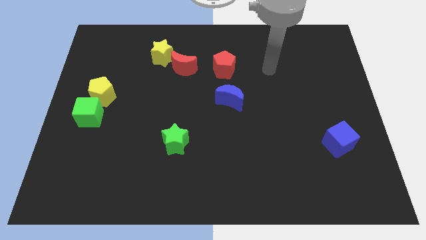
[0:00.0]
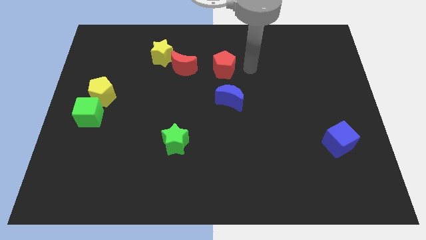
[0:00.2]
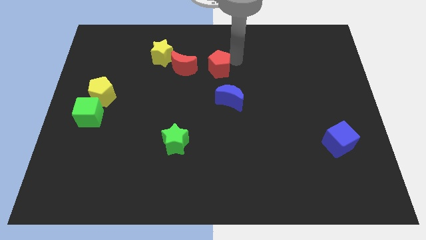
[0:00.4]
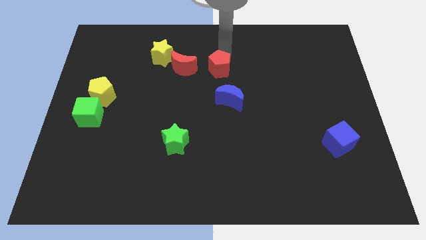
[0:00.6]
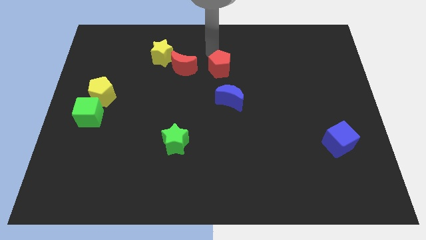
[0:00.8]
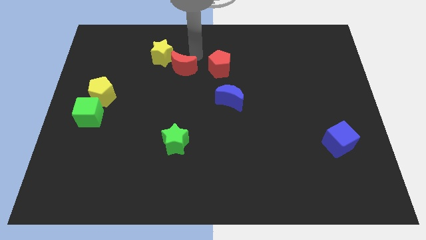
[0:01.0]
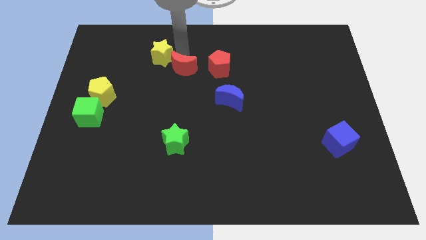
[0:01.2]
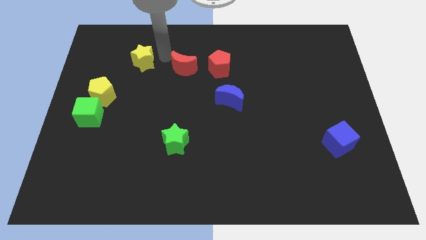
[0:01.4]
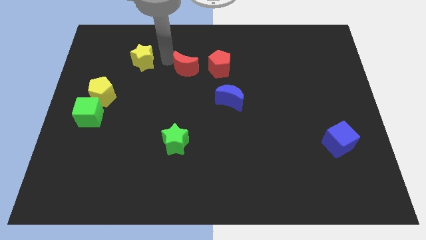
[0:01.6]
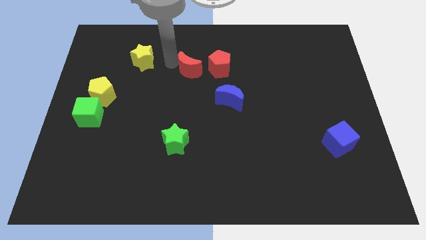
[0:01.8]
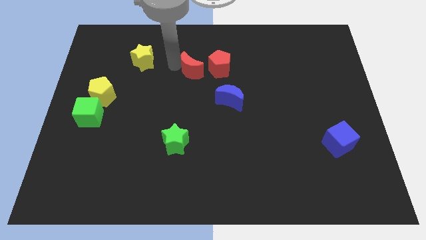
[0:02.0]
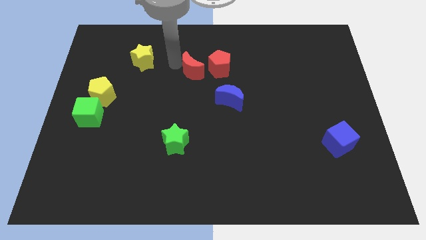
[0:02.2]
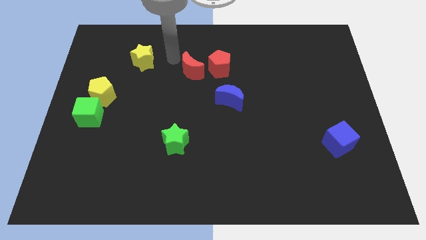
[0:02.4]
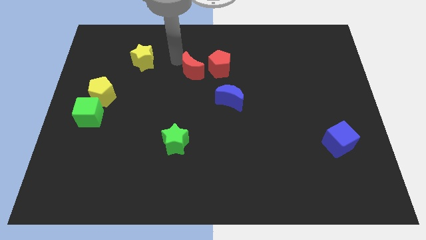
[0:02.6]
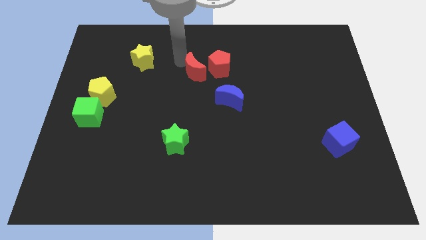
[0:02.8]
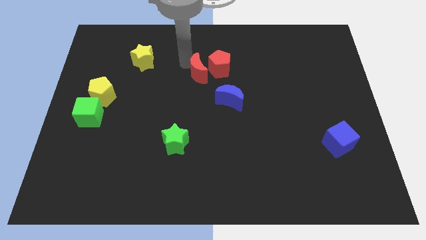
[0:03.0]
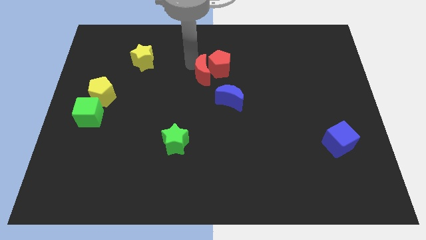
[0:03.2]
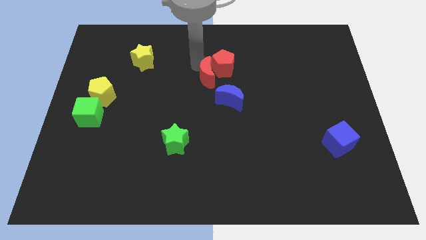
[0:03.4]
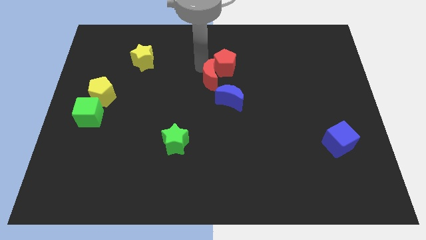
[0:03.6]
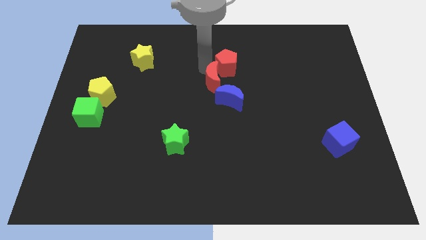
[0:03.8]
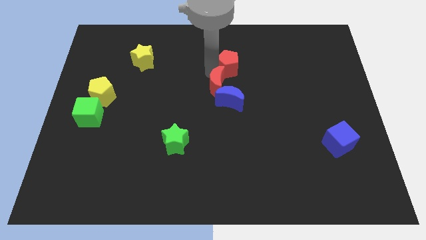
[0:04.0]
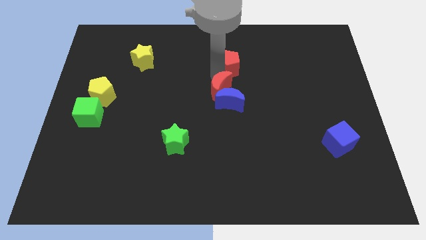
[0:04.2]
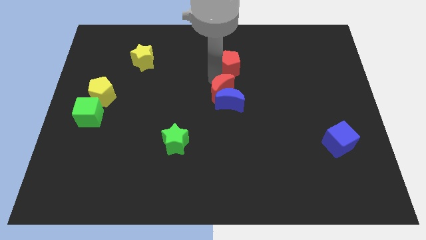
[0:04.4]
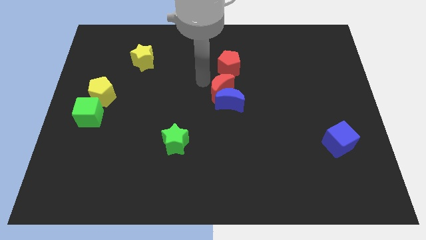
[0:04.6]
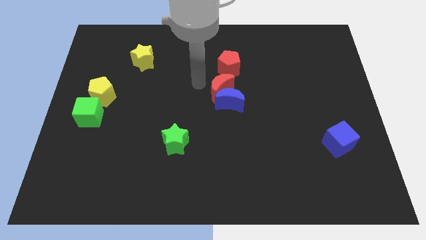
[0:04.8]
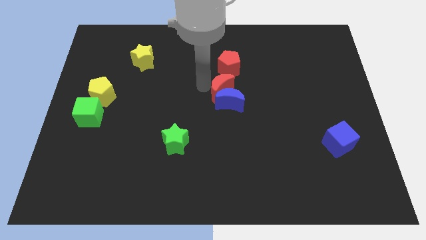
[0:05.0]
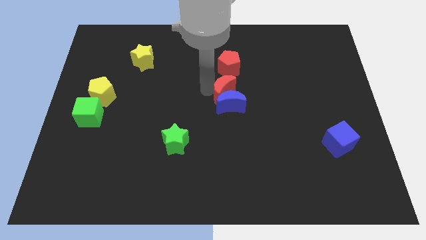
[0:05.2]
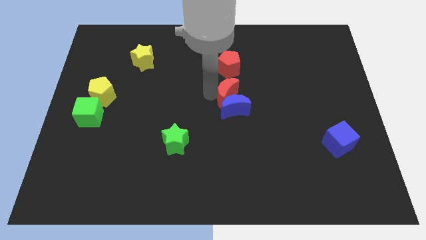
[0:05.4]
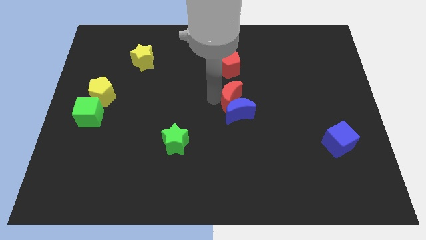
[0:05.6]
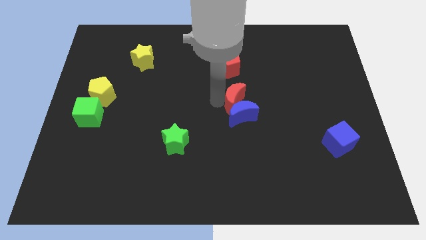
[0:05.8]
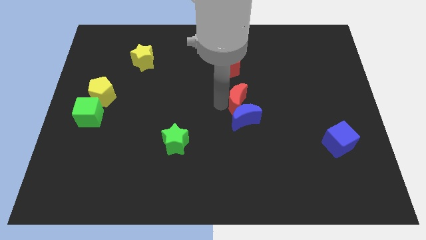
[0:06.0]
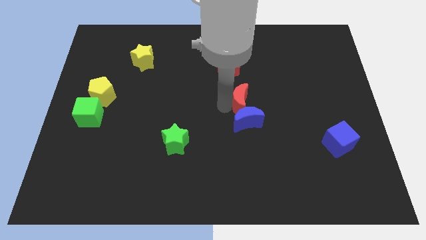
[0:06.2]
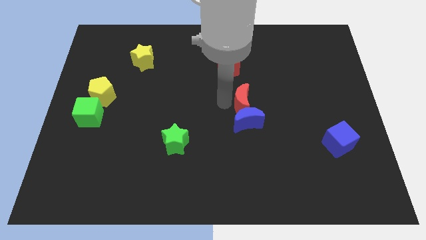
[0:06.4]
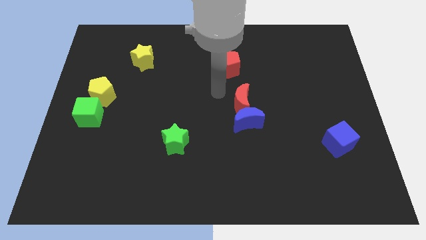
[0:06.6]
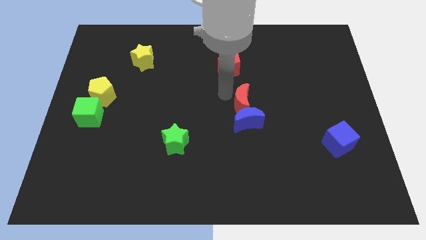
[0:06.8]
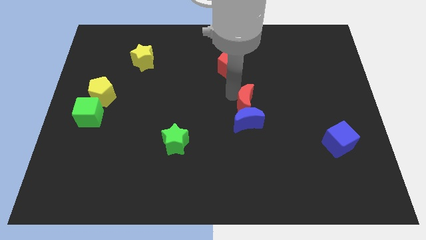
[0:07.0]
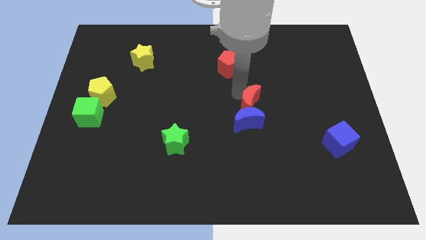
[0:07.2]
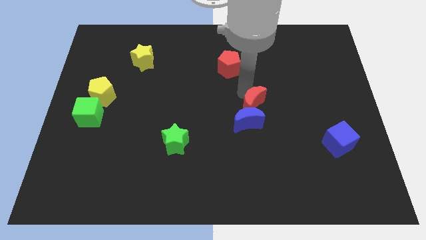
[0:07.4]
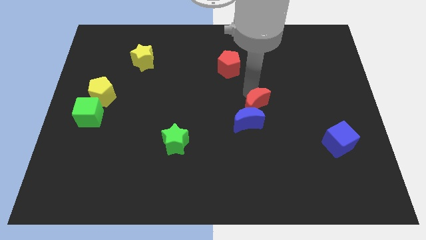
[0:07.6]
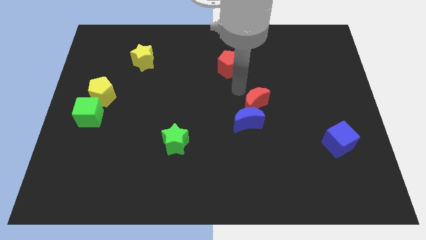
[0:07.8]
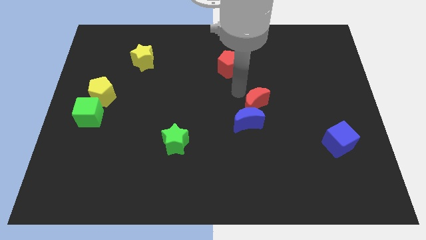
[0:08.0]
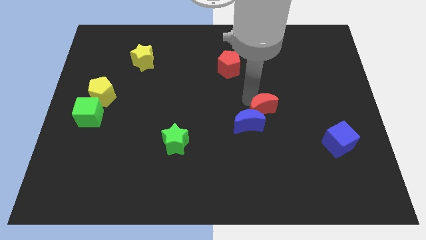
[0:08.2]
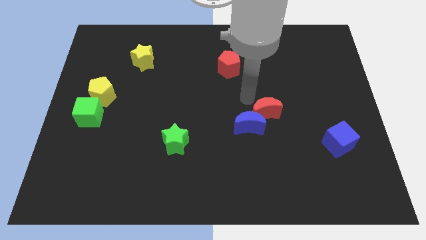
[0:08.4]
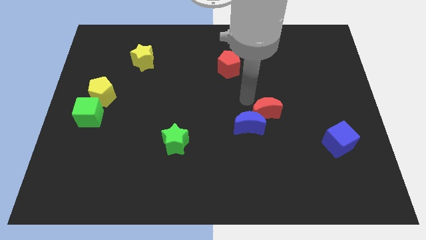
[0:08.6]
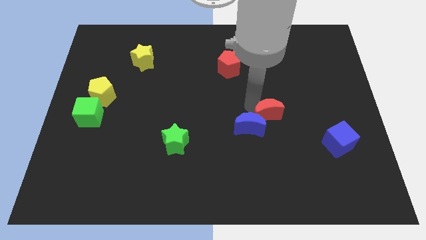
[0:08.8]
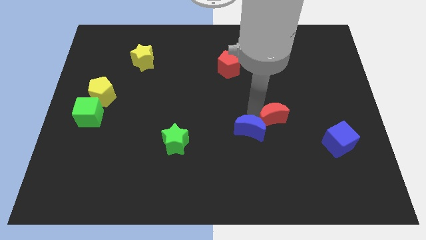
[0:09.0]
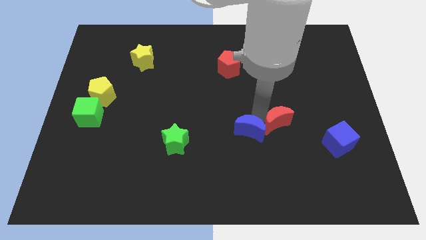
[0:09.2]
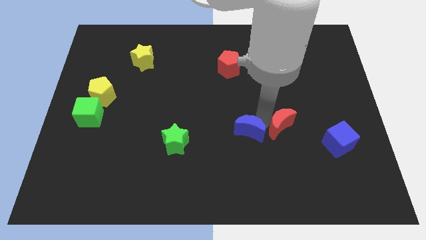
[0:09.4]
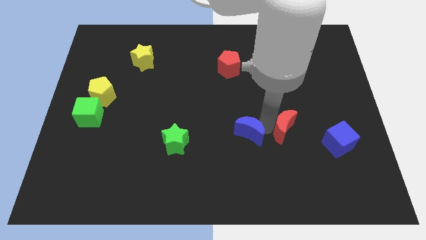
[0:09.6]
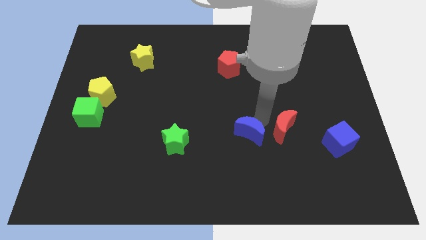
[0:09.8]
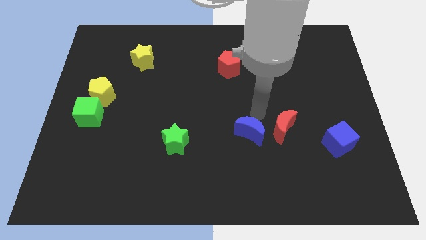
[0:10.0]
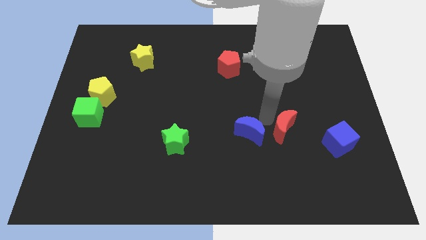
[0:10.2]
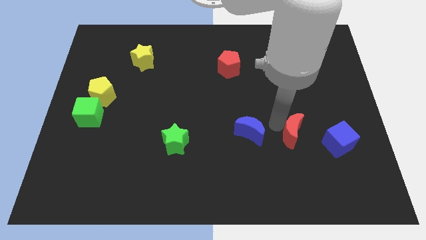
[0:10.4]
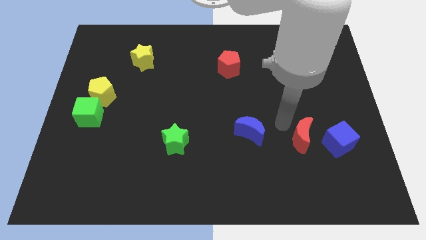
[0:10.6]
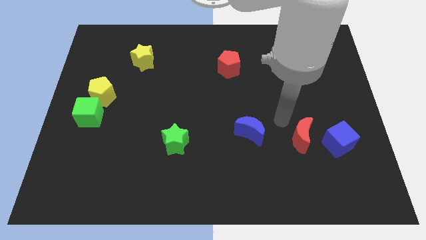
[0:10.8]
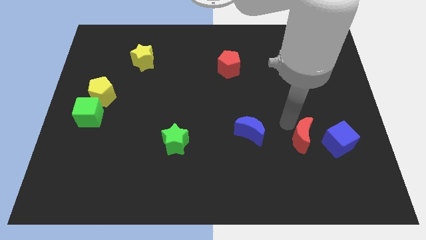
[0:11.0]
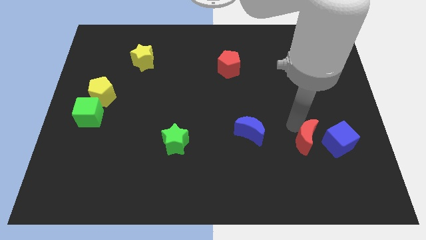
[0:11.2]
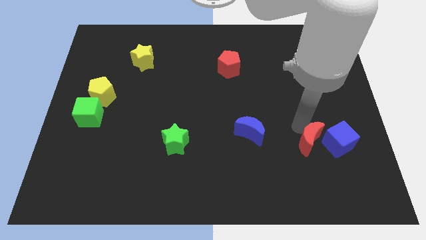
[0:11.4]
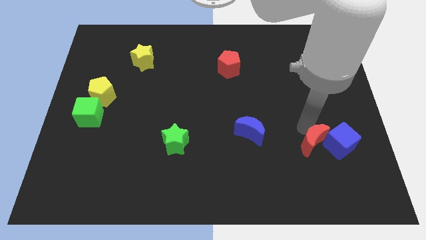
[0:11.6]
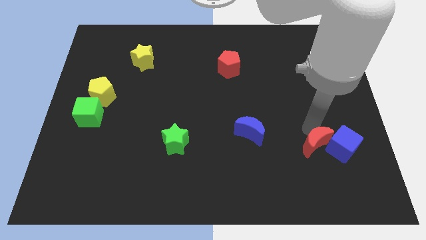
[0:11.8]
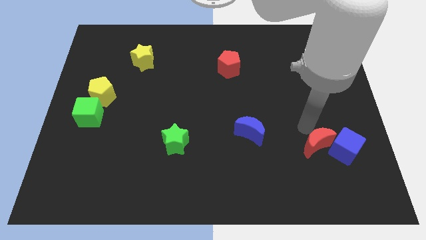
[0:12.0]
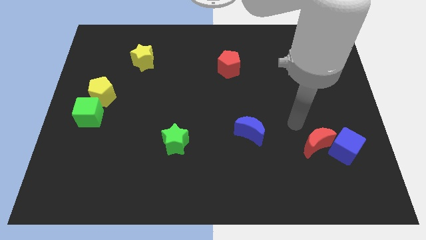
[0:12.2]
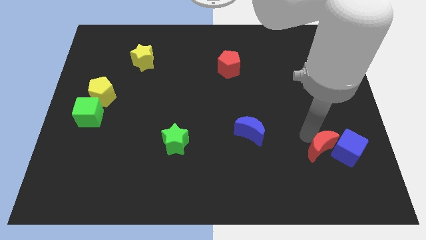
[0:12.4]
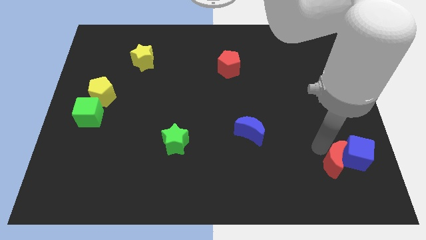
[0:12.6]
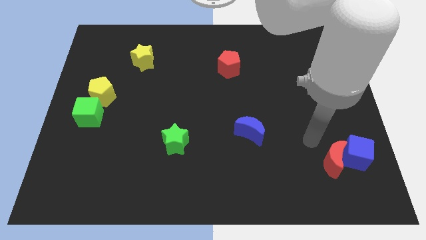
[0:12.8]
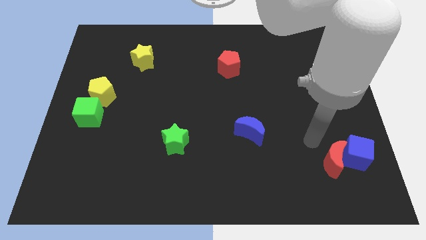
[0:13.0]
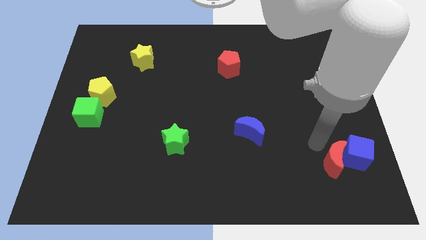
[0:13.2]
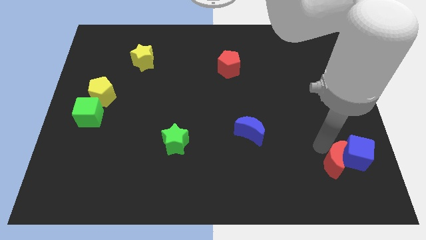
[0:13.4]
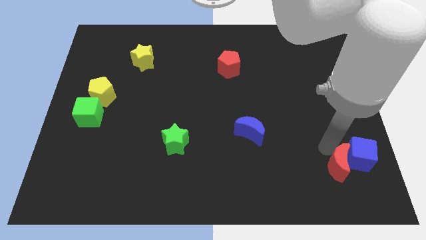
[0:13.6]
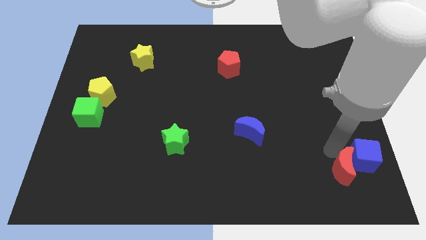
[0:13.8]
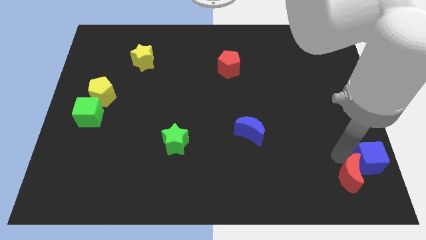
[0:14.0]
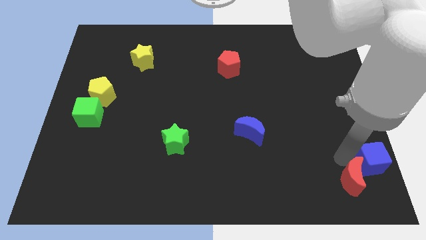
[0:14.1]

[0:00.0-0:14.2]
move the red moon to the lower right corner
